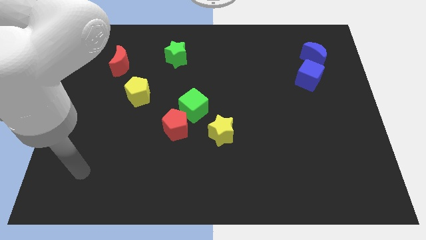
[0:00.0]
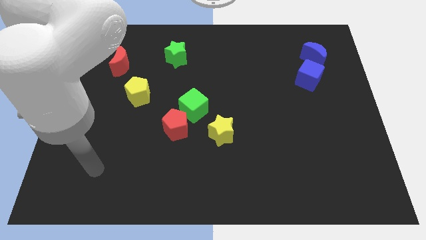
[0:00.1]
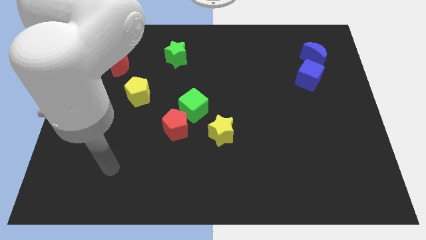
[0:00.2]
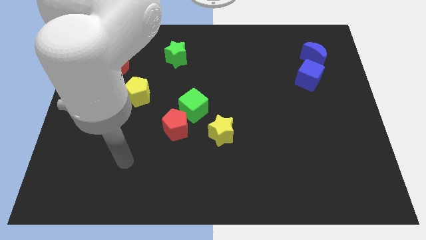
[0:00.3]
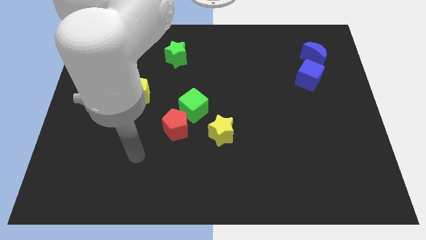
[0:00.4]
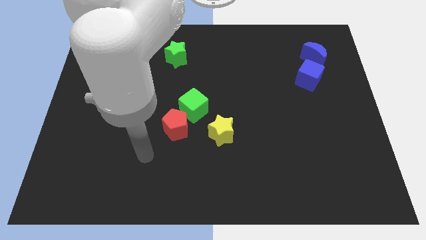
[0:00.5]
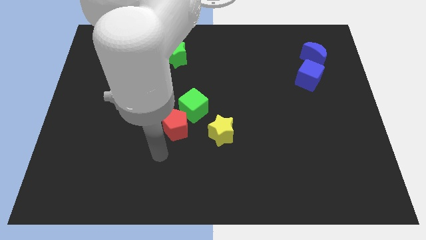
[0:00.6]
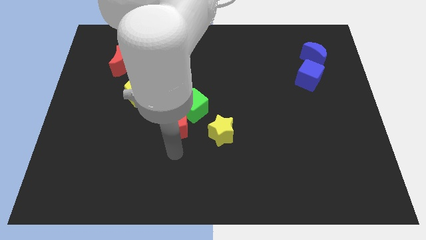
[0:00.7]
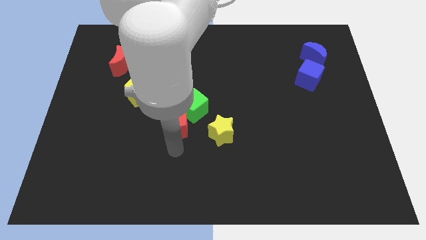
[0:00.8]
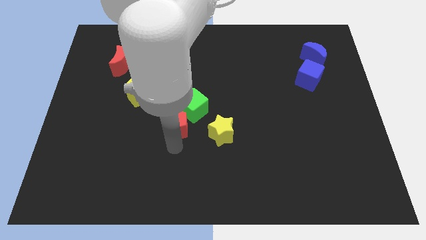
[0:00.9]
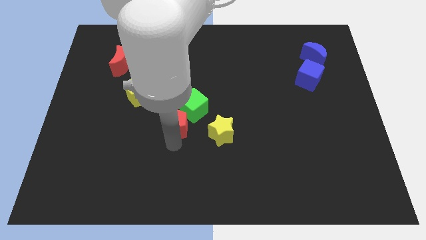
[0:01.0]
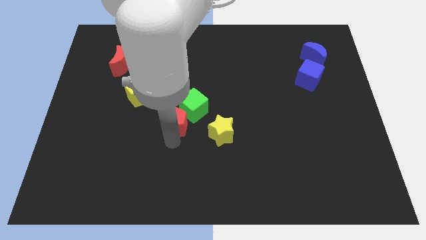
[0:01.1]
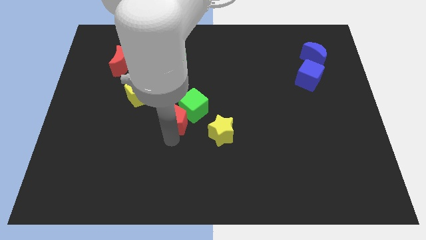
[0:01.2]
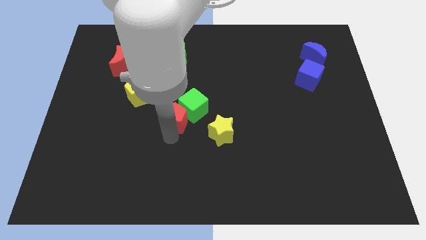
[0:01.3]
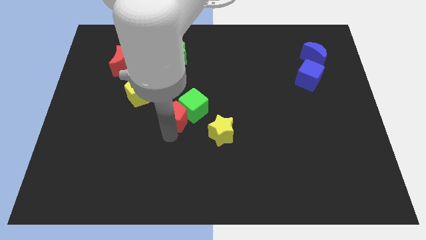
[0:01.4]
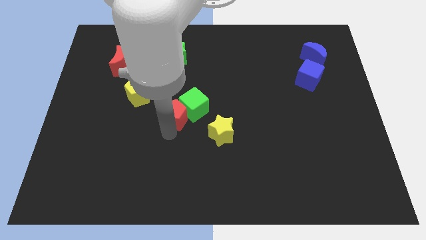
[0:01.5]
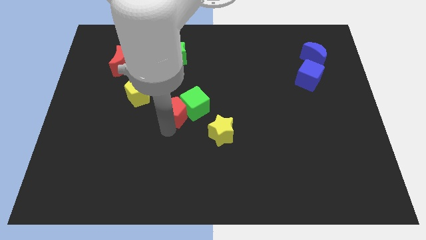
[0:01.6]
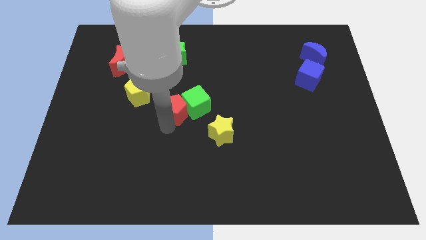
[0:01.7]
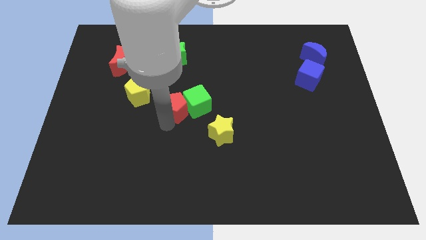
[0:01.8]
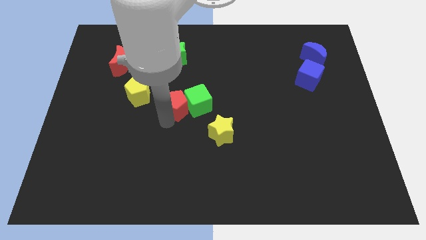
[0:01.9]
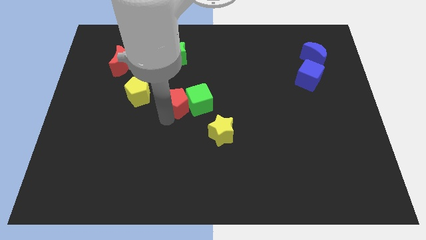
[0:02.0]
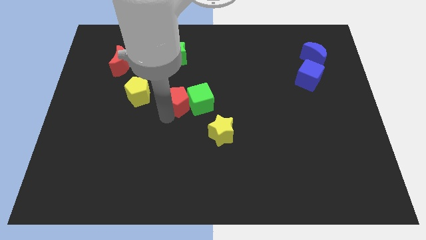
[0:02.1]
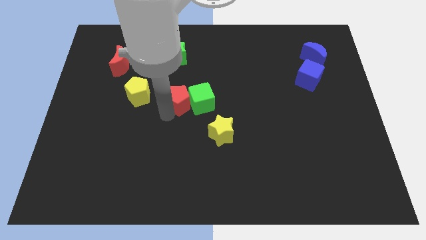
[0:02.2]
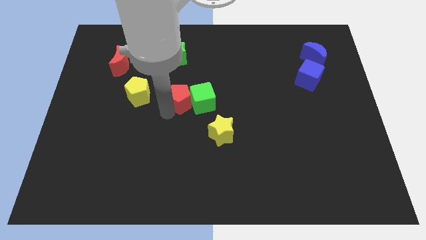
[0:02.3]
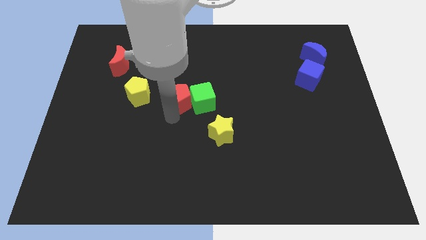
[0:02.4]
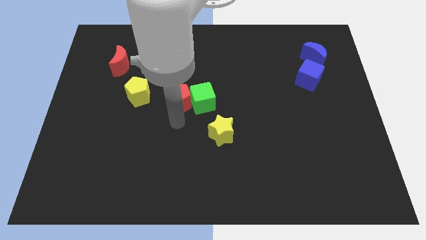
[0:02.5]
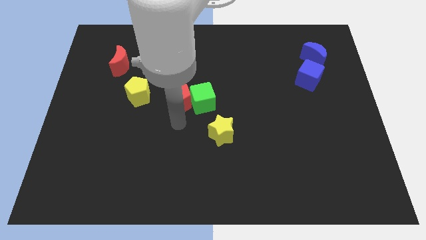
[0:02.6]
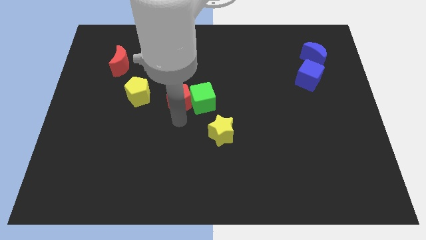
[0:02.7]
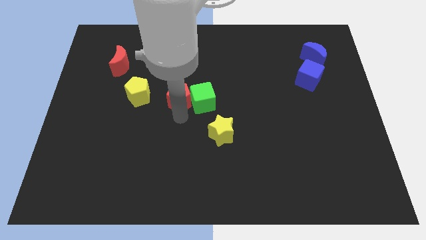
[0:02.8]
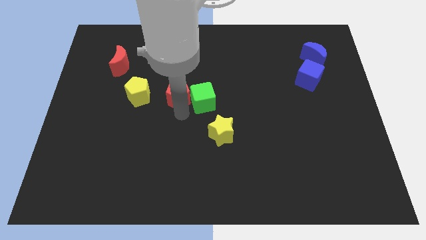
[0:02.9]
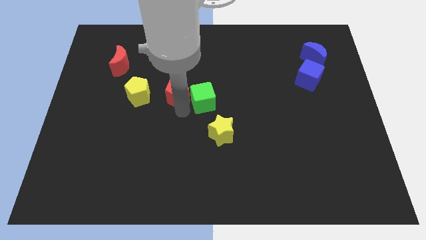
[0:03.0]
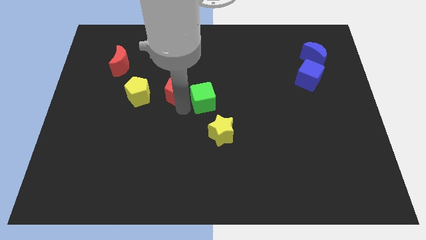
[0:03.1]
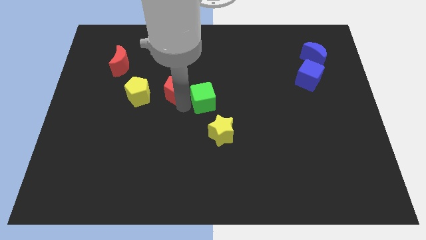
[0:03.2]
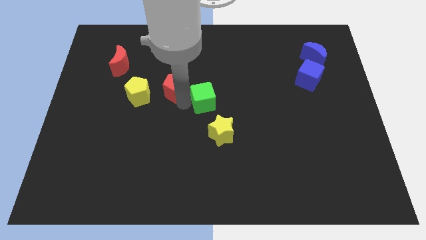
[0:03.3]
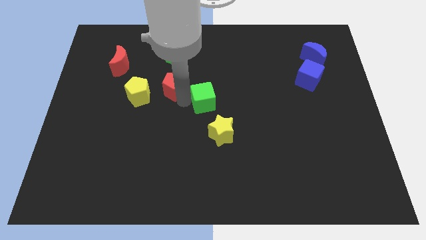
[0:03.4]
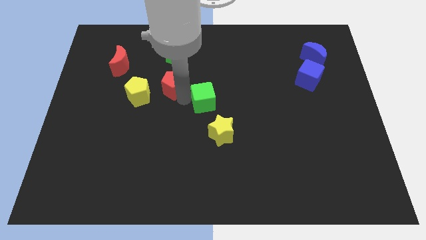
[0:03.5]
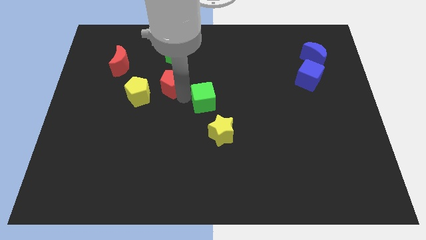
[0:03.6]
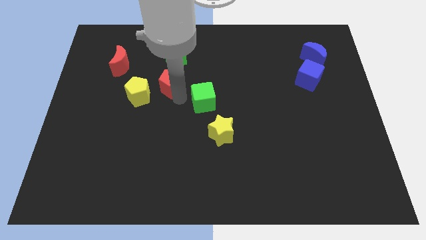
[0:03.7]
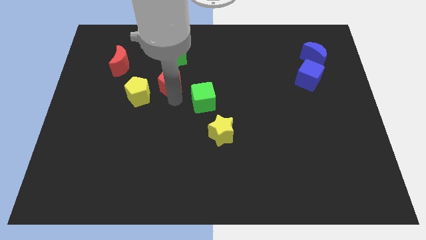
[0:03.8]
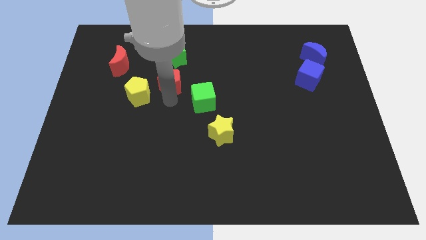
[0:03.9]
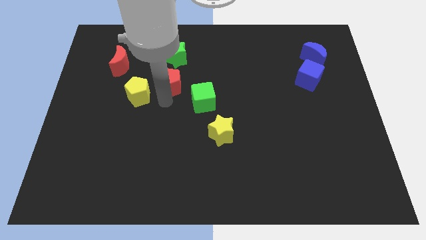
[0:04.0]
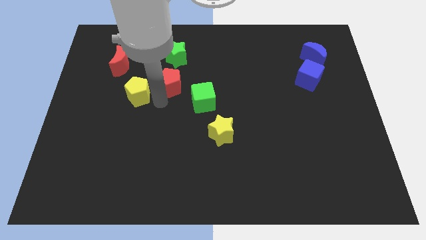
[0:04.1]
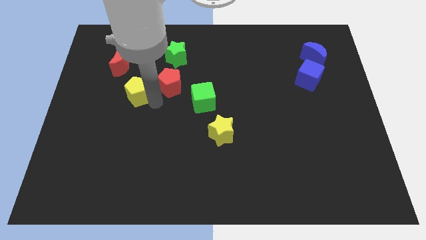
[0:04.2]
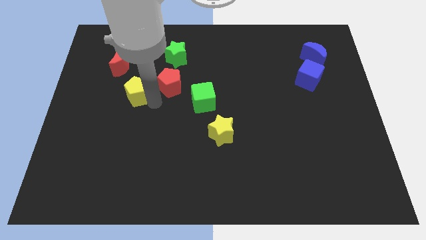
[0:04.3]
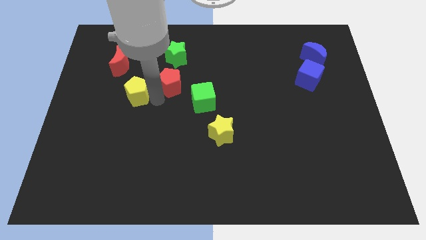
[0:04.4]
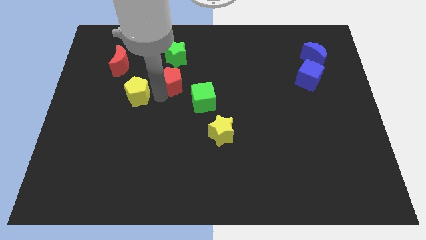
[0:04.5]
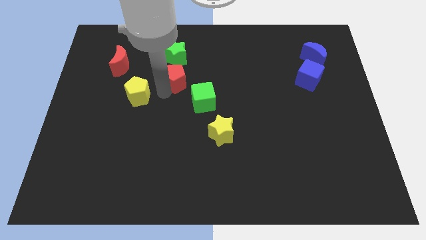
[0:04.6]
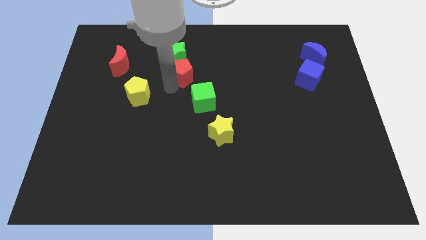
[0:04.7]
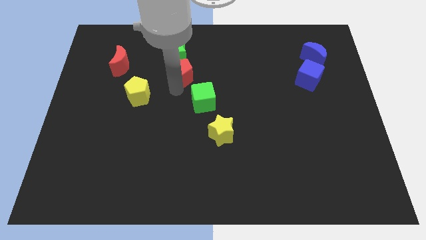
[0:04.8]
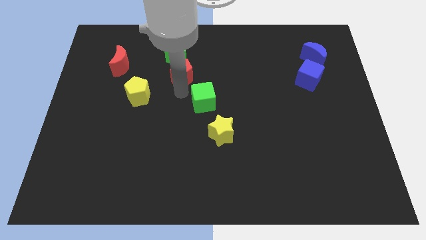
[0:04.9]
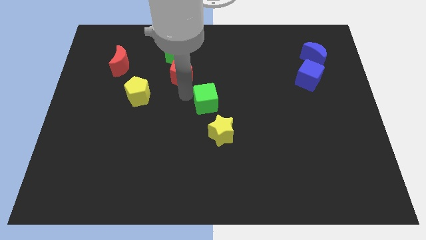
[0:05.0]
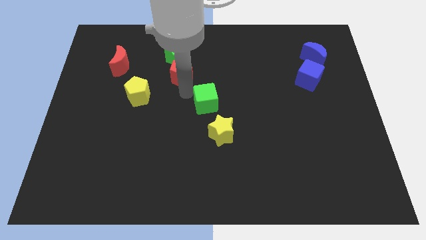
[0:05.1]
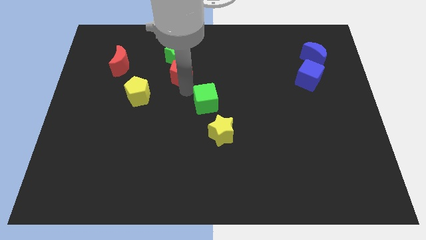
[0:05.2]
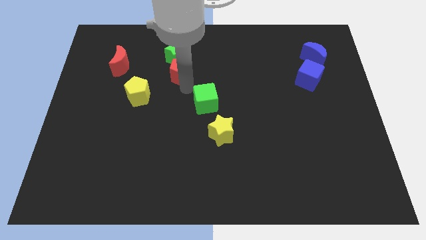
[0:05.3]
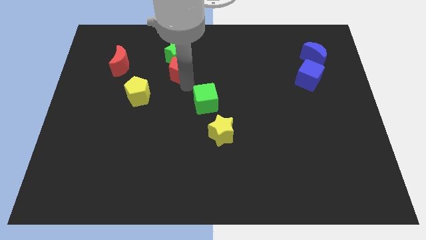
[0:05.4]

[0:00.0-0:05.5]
move the red pentagon towards the green star
